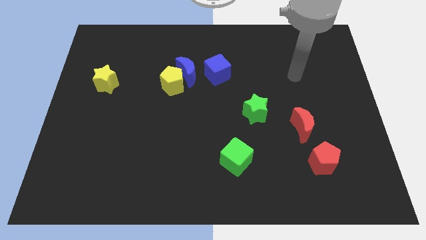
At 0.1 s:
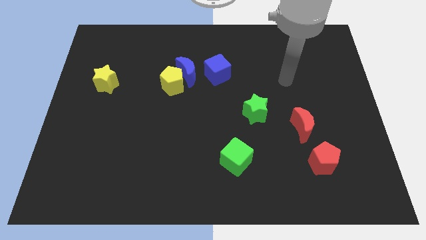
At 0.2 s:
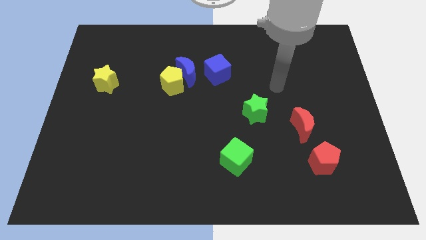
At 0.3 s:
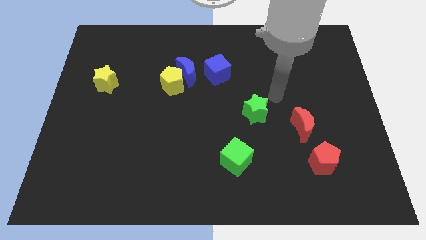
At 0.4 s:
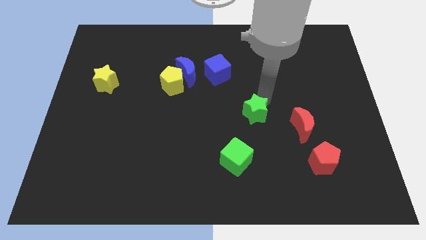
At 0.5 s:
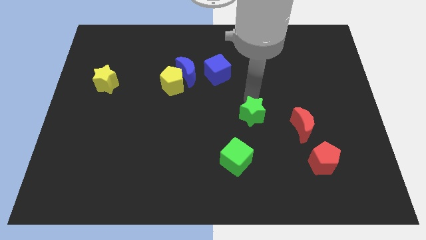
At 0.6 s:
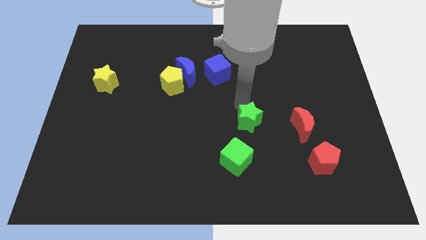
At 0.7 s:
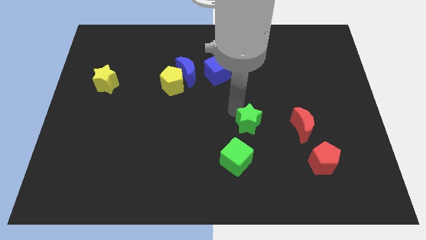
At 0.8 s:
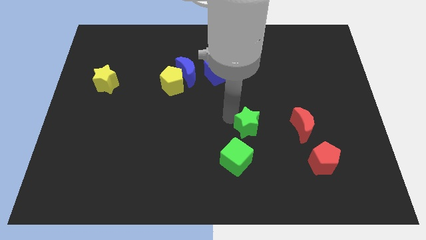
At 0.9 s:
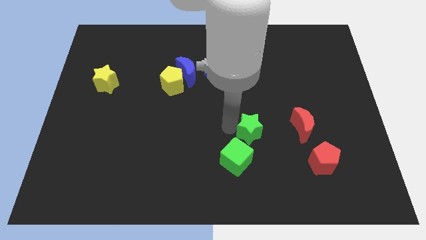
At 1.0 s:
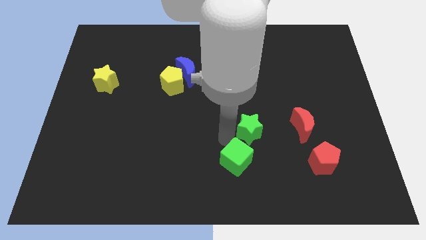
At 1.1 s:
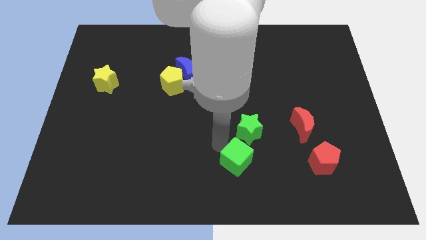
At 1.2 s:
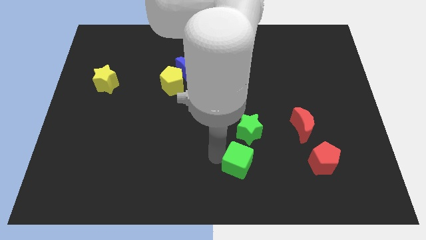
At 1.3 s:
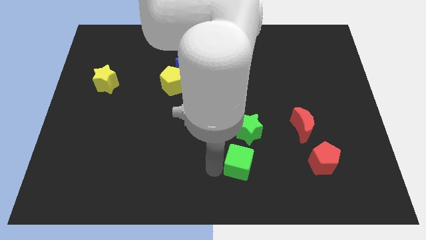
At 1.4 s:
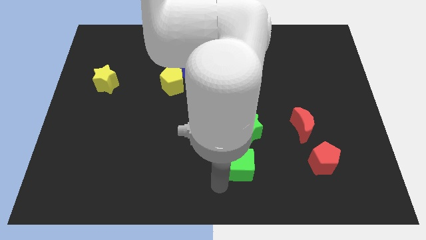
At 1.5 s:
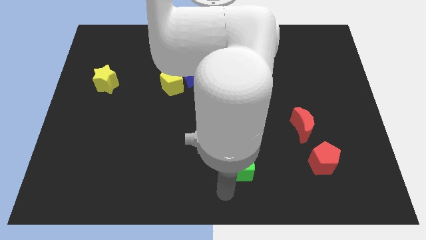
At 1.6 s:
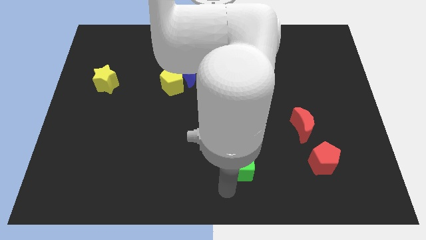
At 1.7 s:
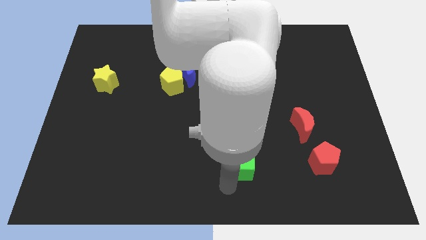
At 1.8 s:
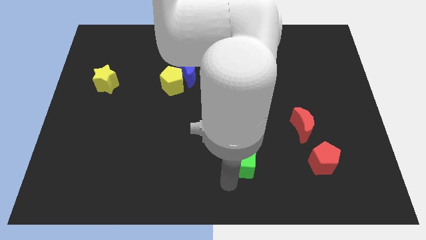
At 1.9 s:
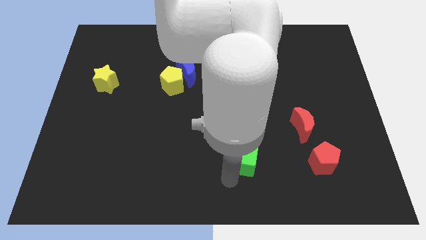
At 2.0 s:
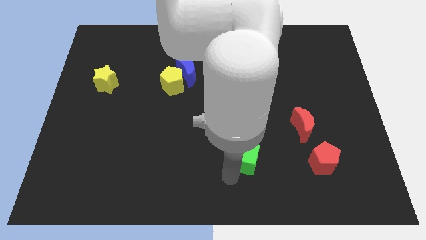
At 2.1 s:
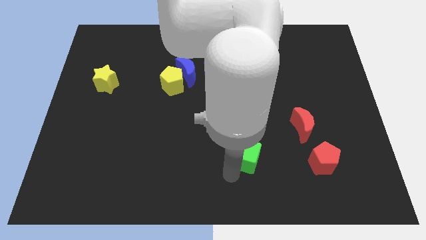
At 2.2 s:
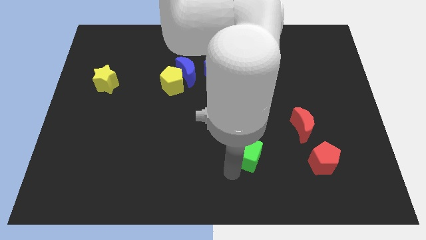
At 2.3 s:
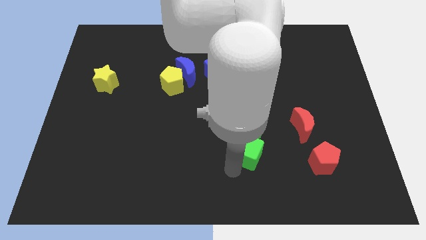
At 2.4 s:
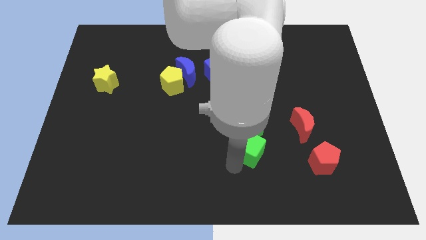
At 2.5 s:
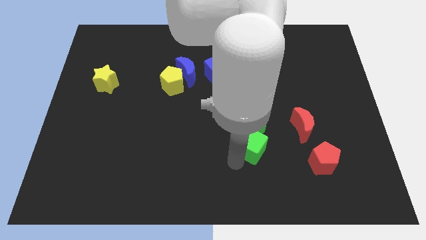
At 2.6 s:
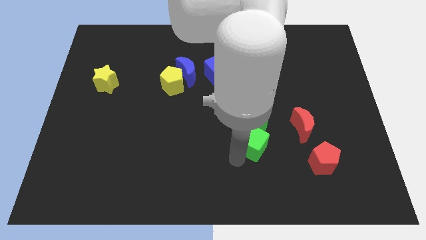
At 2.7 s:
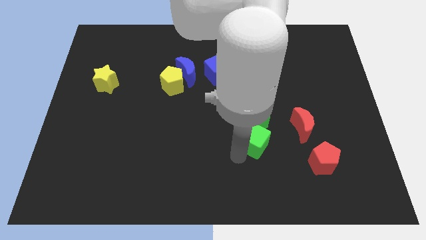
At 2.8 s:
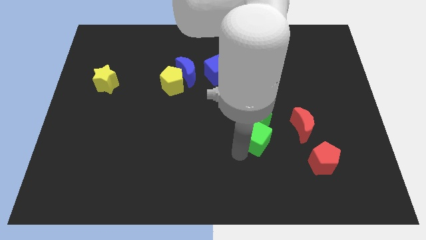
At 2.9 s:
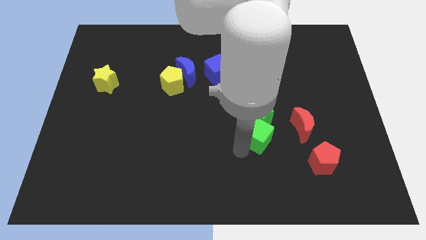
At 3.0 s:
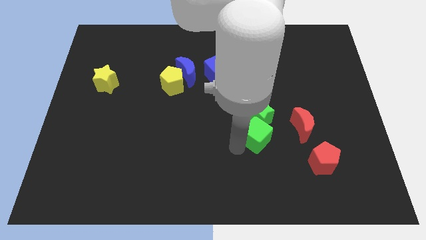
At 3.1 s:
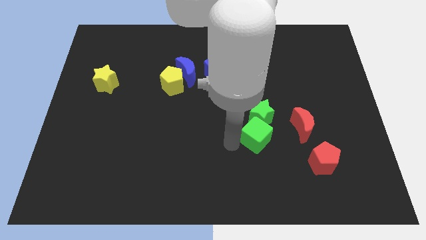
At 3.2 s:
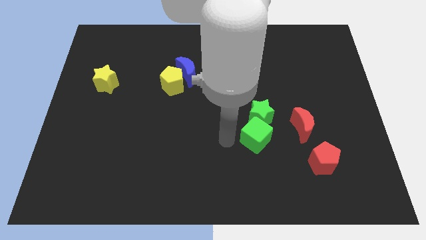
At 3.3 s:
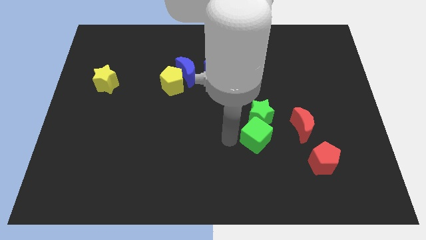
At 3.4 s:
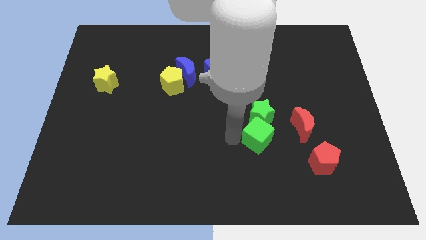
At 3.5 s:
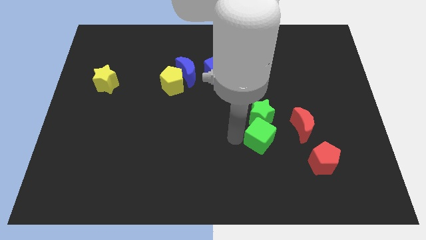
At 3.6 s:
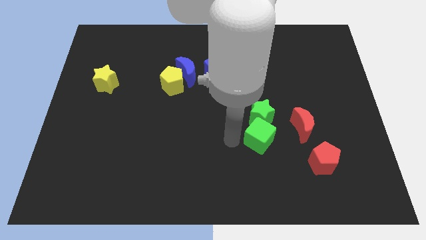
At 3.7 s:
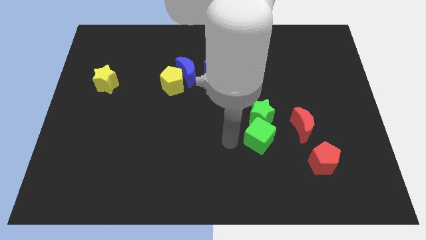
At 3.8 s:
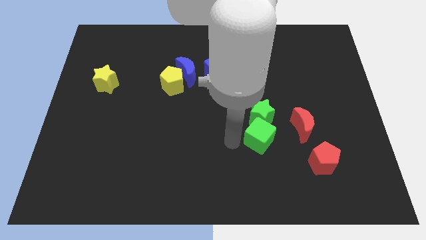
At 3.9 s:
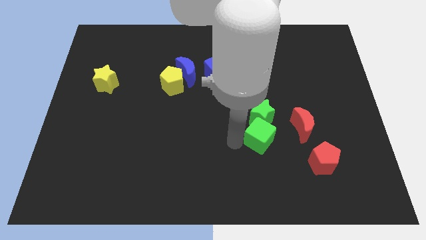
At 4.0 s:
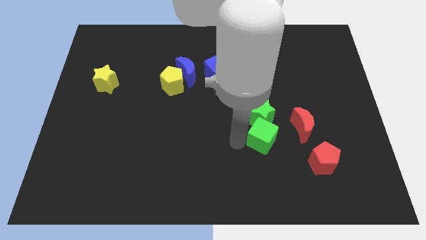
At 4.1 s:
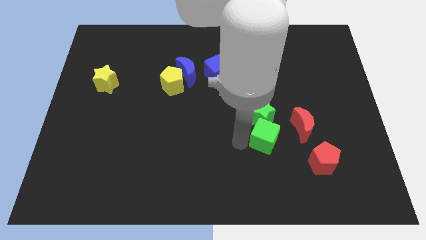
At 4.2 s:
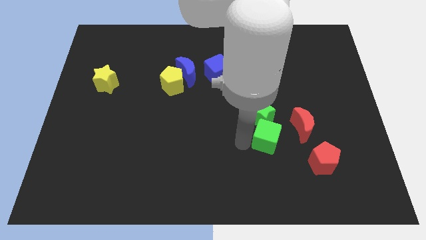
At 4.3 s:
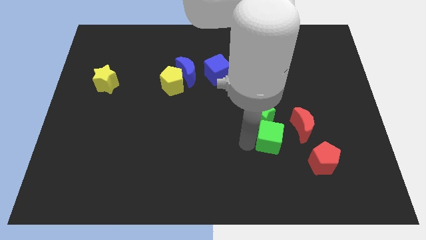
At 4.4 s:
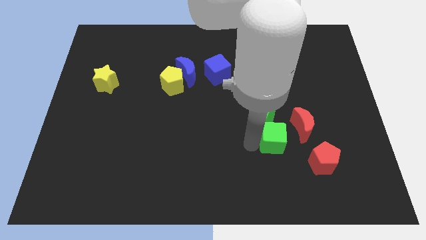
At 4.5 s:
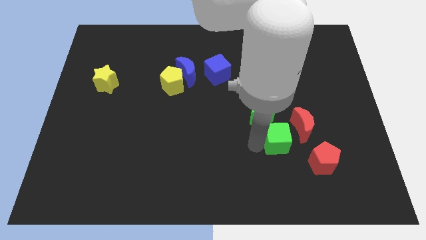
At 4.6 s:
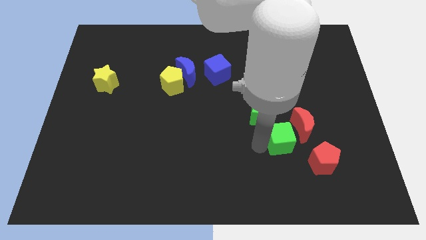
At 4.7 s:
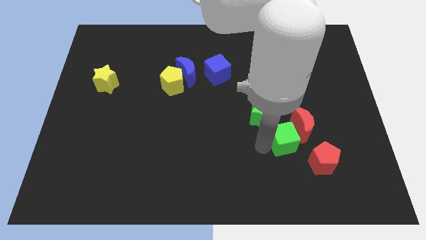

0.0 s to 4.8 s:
slide the green cube to the red moon

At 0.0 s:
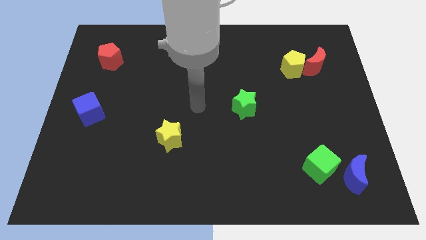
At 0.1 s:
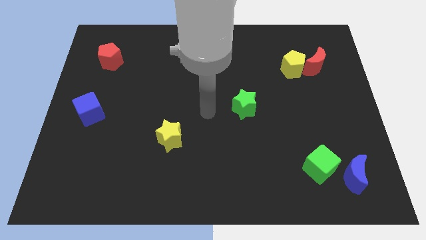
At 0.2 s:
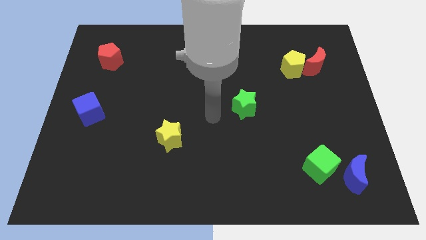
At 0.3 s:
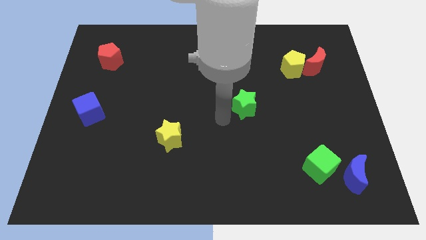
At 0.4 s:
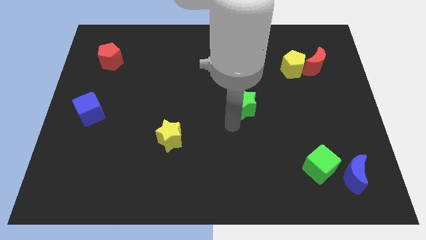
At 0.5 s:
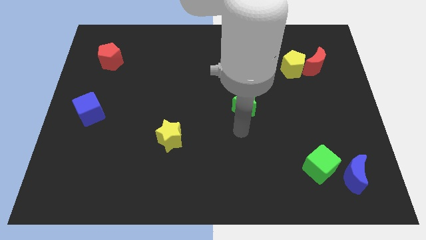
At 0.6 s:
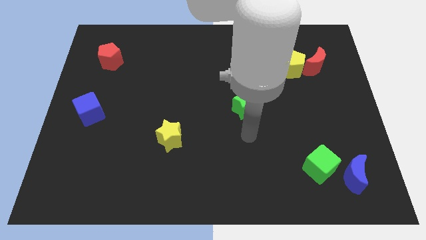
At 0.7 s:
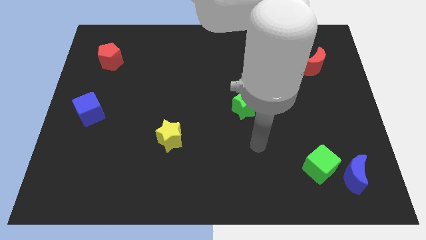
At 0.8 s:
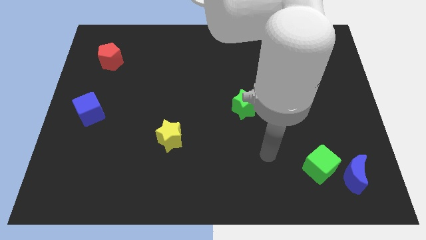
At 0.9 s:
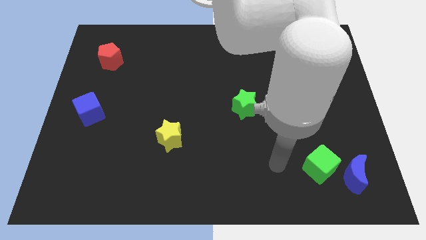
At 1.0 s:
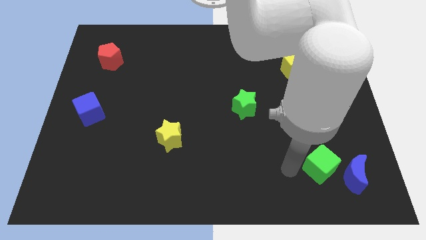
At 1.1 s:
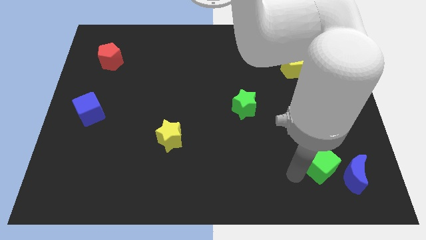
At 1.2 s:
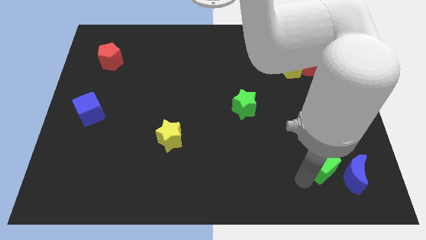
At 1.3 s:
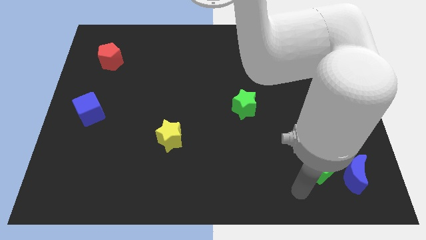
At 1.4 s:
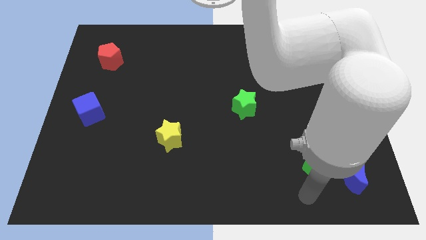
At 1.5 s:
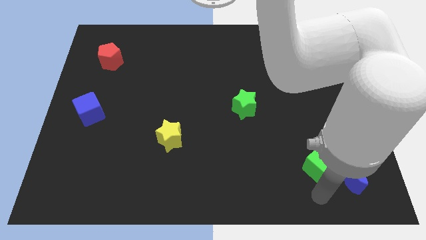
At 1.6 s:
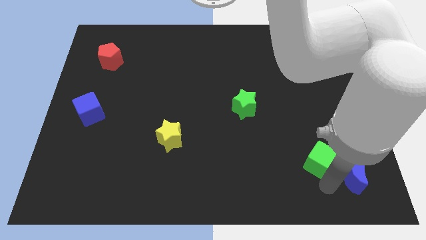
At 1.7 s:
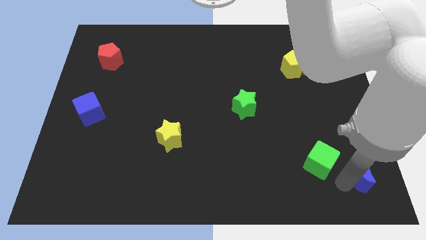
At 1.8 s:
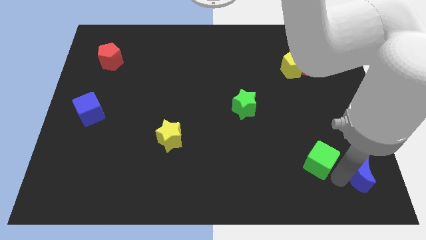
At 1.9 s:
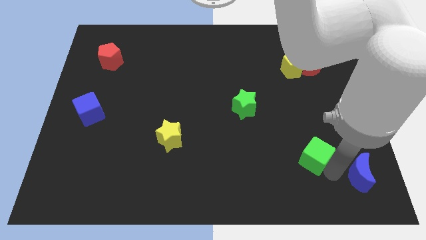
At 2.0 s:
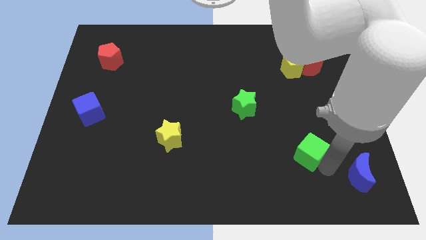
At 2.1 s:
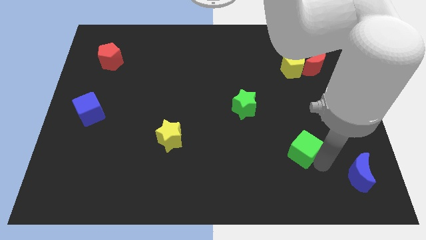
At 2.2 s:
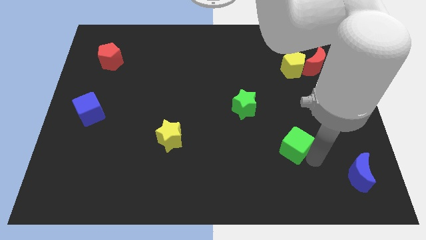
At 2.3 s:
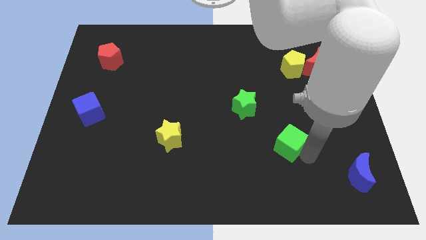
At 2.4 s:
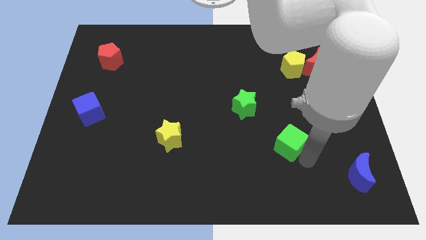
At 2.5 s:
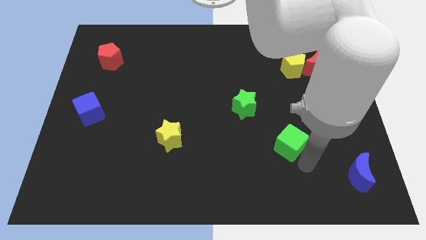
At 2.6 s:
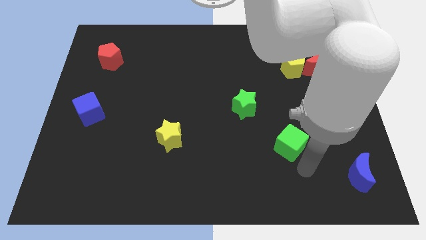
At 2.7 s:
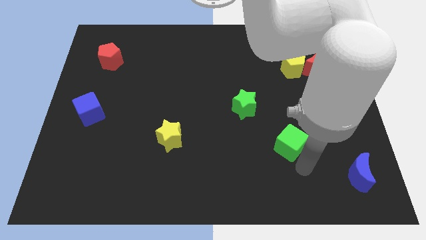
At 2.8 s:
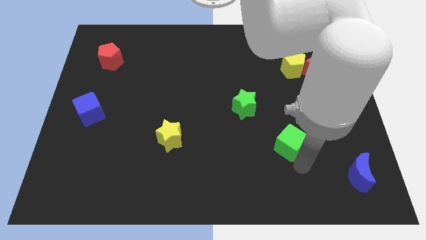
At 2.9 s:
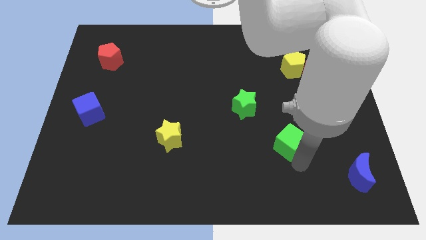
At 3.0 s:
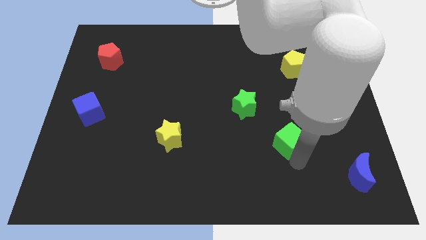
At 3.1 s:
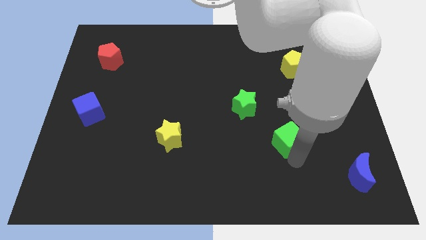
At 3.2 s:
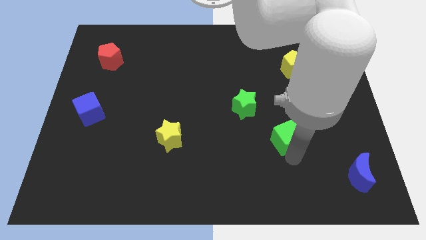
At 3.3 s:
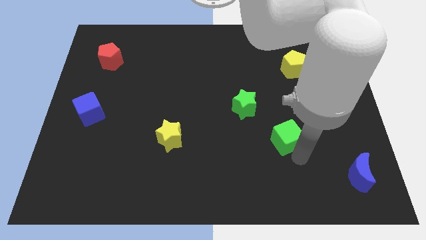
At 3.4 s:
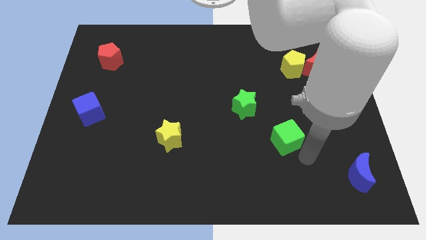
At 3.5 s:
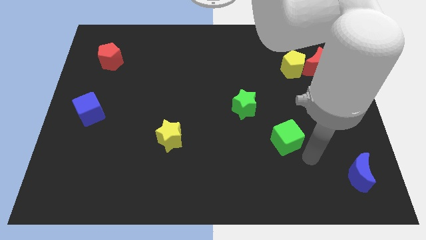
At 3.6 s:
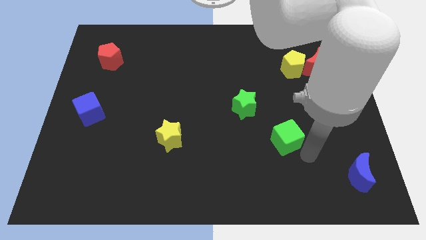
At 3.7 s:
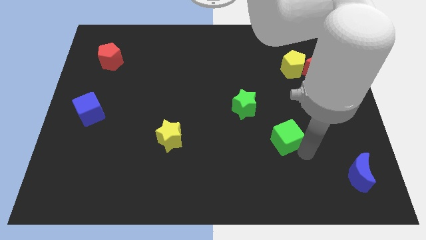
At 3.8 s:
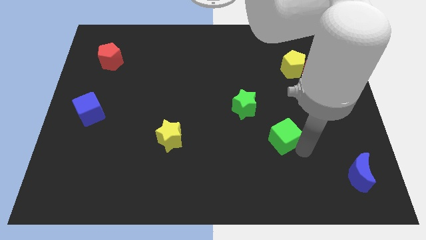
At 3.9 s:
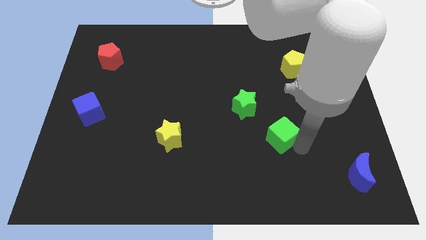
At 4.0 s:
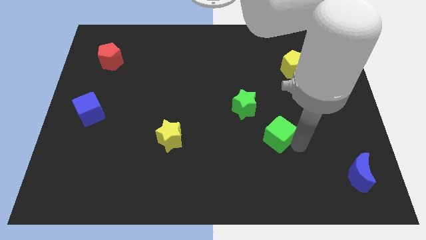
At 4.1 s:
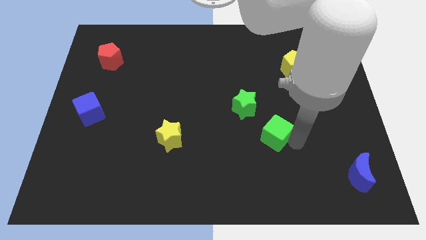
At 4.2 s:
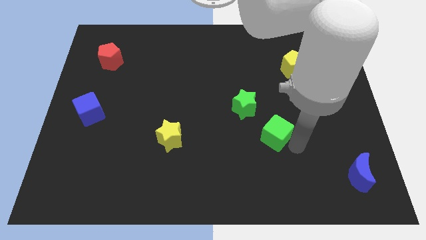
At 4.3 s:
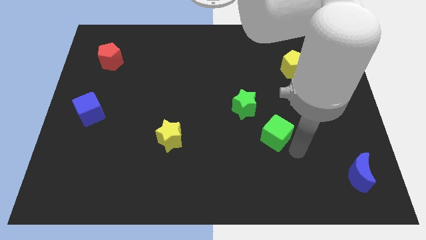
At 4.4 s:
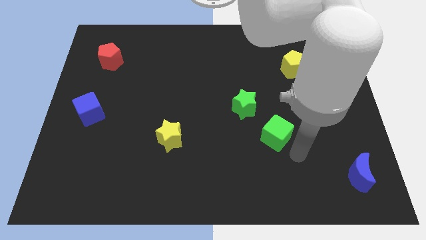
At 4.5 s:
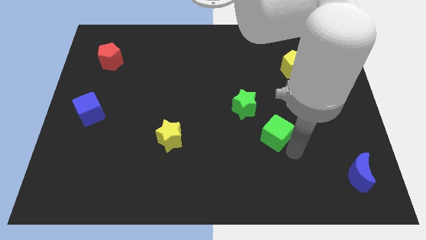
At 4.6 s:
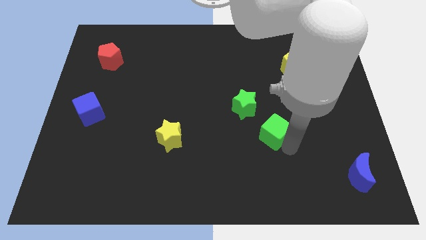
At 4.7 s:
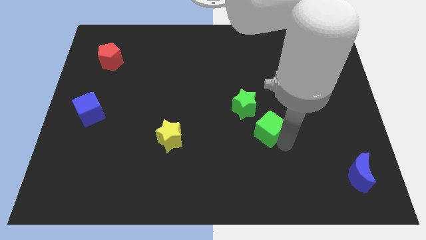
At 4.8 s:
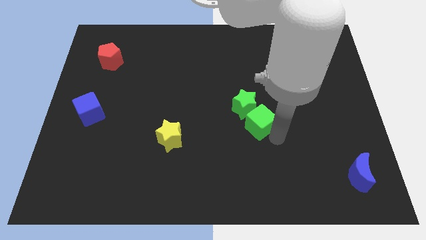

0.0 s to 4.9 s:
move the green cube close to the green star
